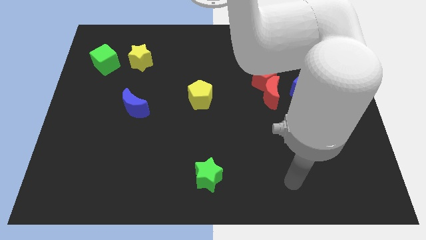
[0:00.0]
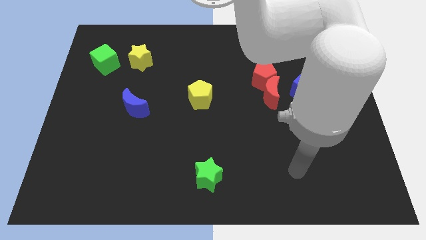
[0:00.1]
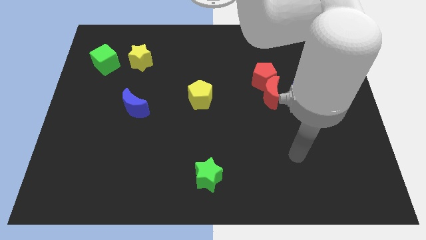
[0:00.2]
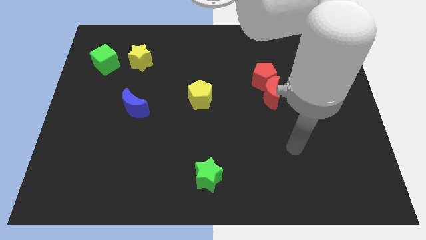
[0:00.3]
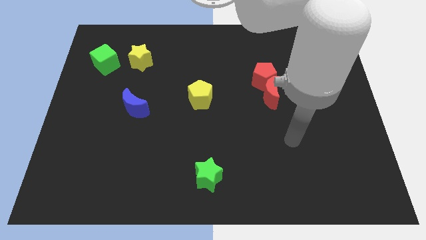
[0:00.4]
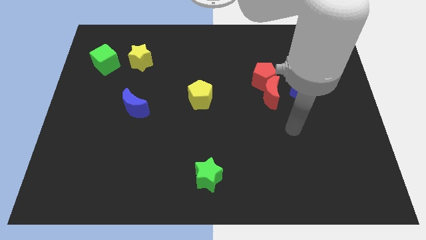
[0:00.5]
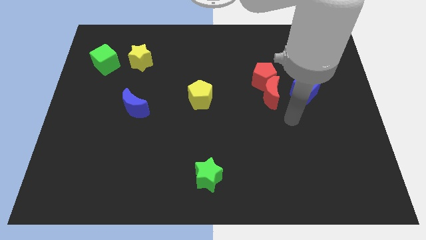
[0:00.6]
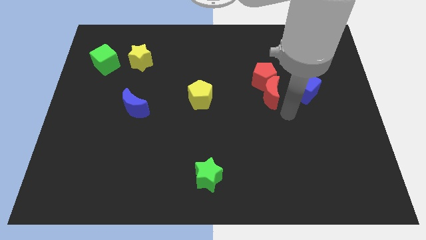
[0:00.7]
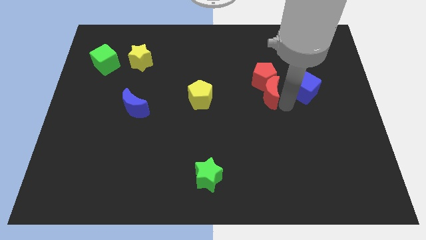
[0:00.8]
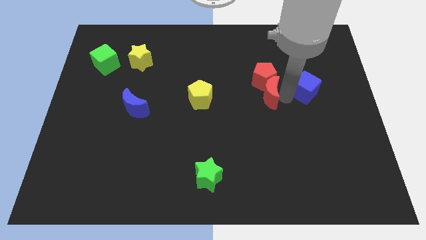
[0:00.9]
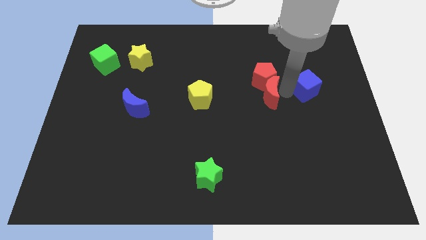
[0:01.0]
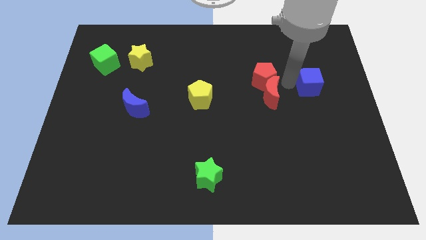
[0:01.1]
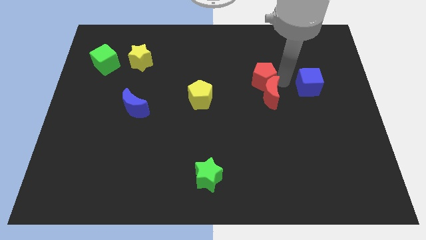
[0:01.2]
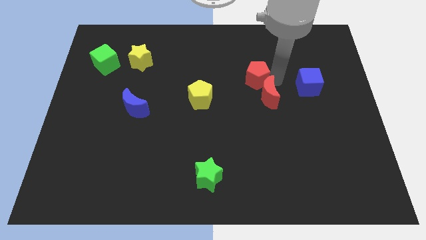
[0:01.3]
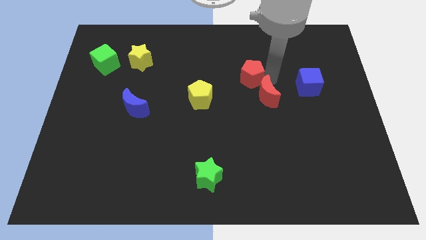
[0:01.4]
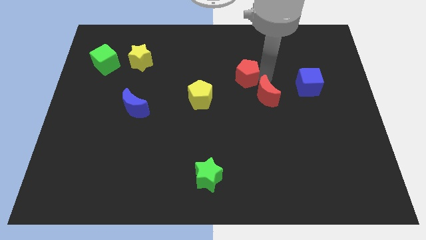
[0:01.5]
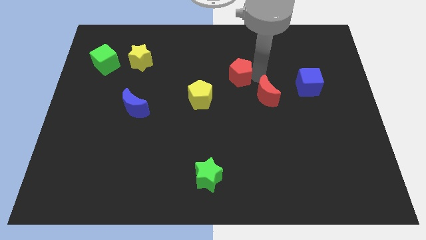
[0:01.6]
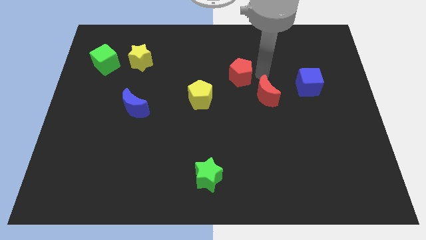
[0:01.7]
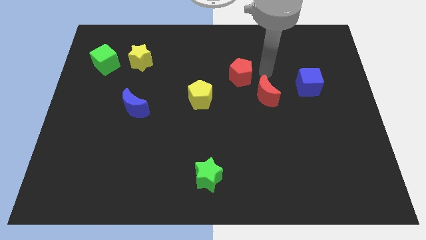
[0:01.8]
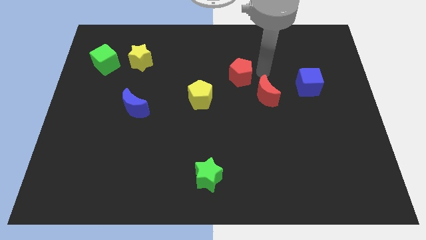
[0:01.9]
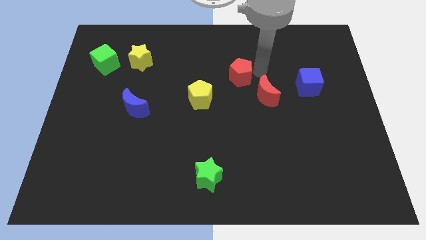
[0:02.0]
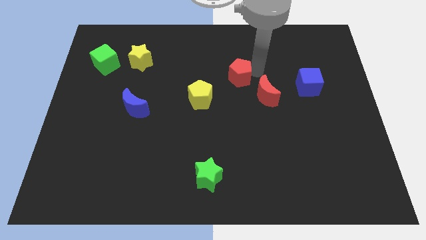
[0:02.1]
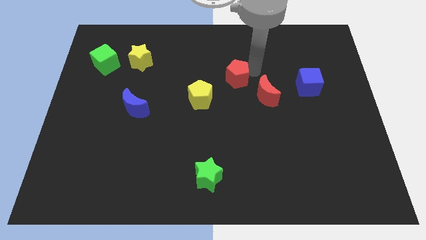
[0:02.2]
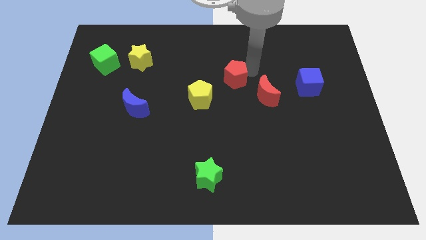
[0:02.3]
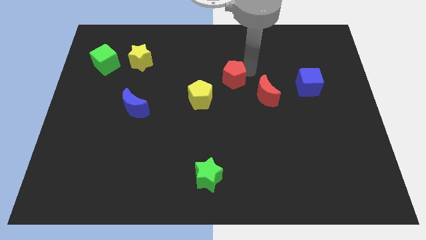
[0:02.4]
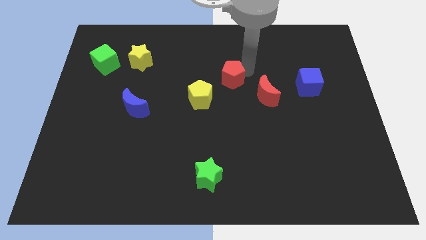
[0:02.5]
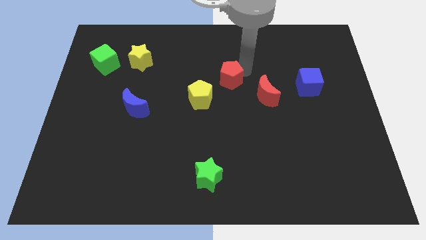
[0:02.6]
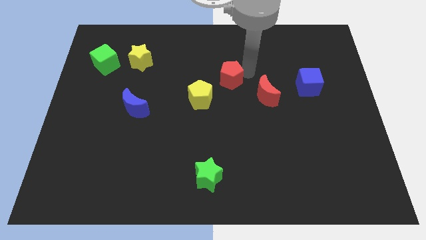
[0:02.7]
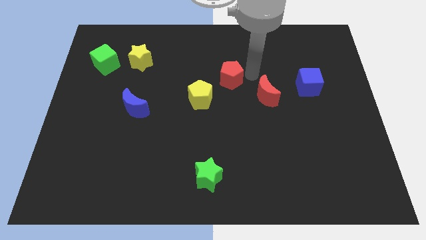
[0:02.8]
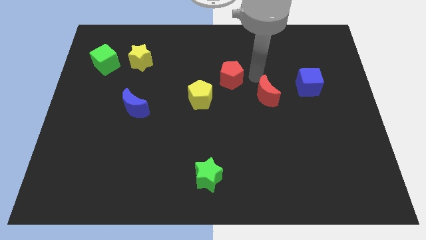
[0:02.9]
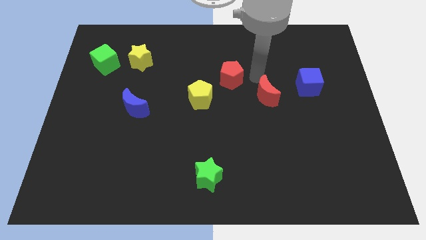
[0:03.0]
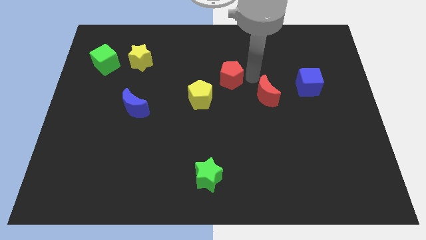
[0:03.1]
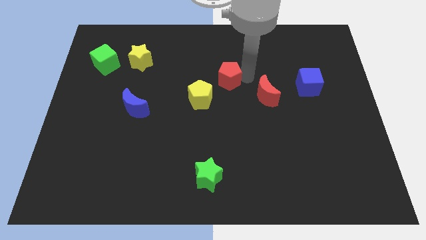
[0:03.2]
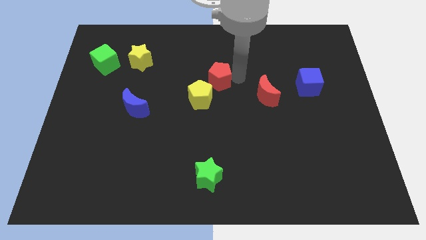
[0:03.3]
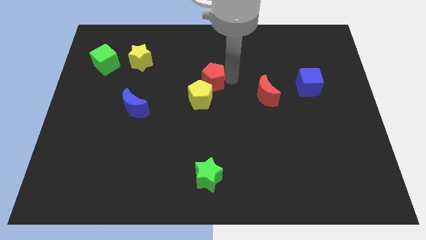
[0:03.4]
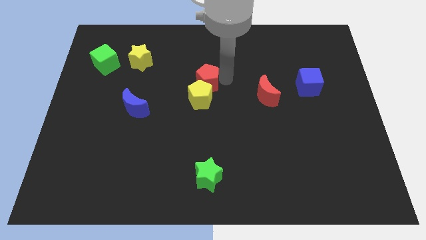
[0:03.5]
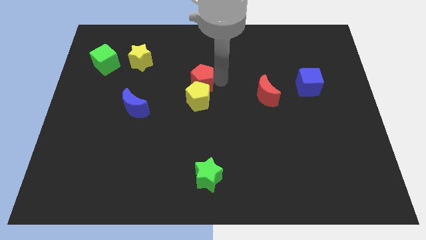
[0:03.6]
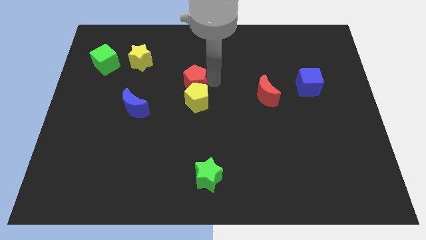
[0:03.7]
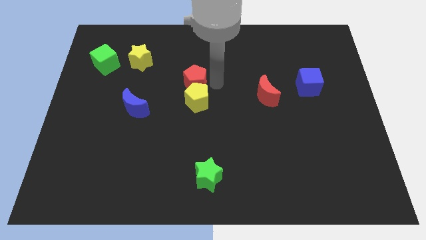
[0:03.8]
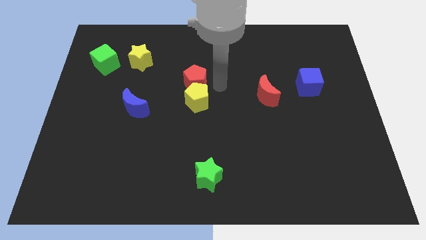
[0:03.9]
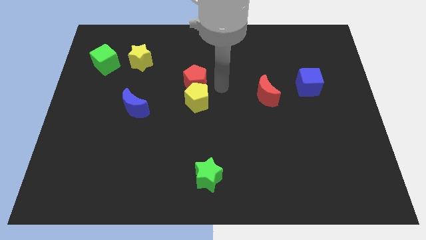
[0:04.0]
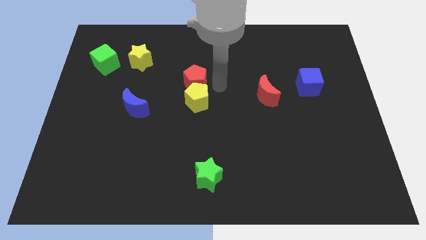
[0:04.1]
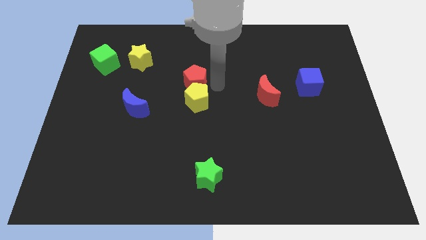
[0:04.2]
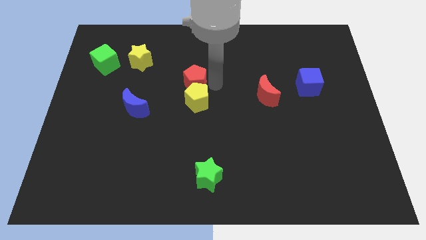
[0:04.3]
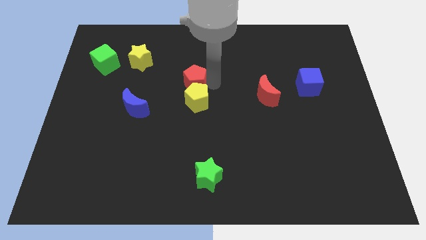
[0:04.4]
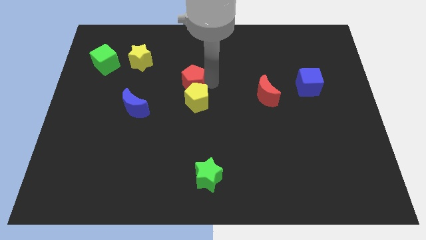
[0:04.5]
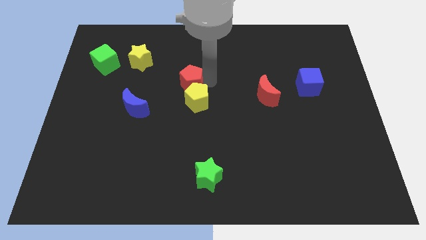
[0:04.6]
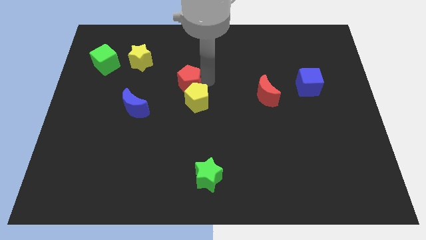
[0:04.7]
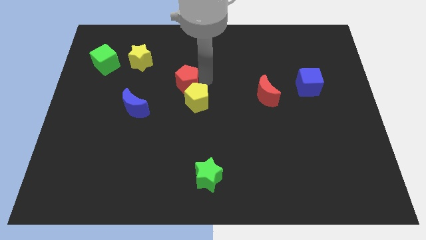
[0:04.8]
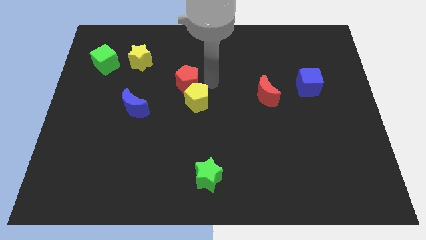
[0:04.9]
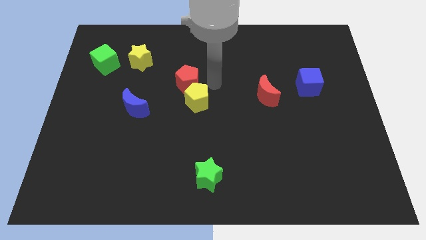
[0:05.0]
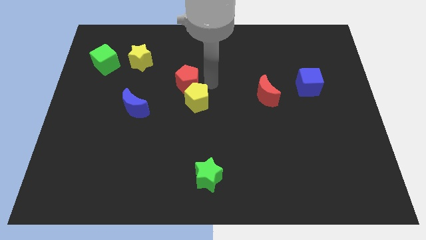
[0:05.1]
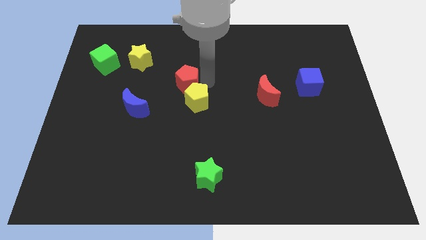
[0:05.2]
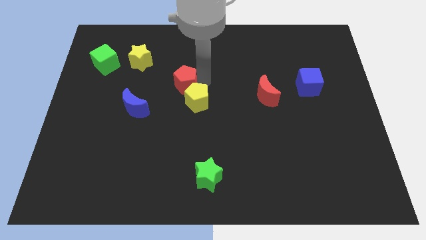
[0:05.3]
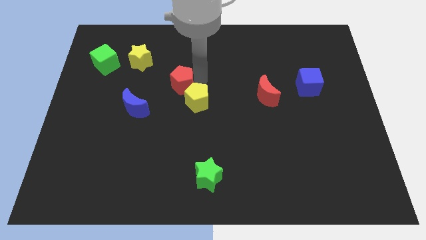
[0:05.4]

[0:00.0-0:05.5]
slide the red pentagon left

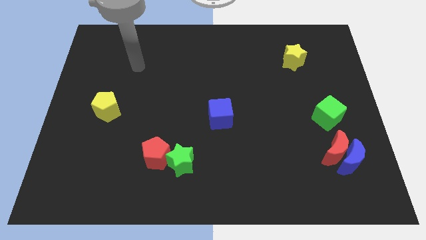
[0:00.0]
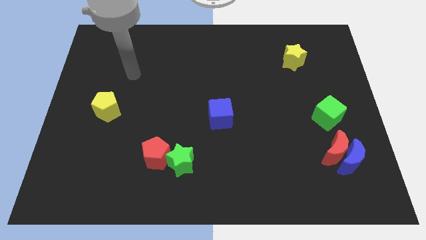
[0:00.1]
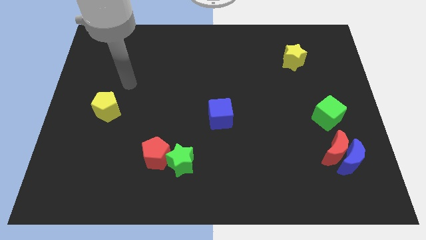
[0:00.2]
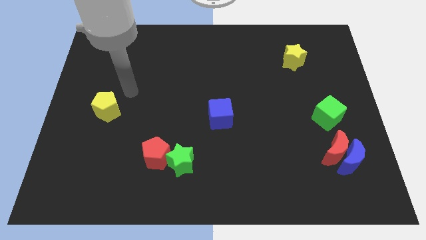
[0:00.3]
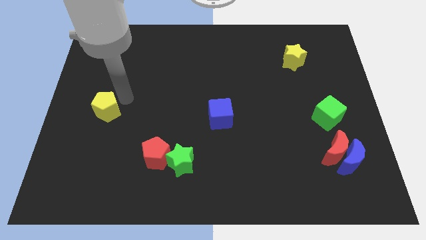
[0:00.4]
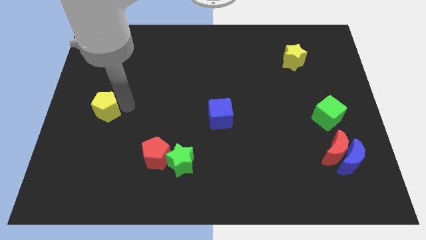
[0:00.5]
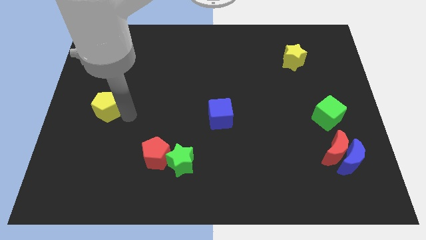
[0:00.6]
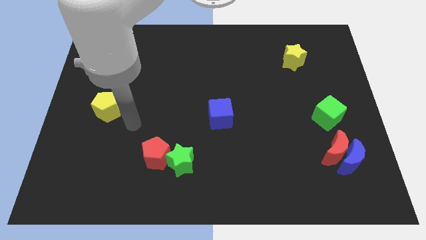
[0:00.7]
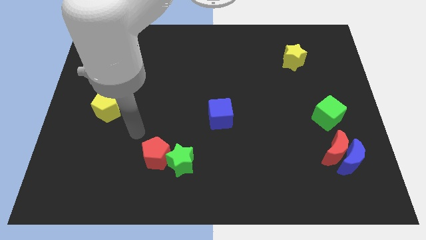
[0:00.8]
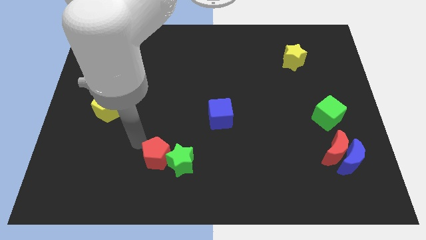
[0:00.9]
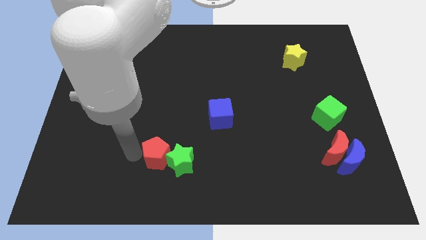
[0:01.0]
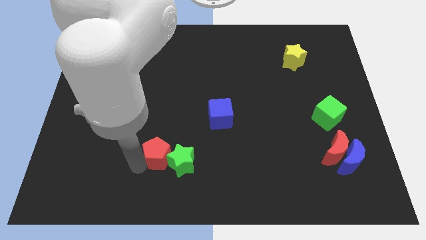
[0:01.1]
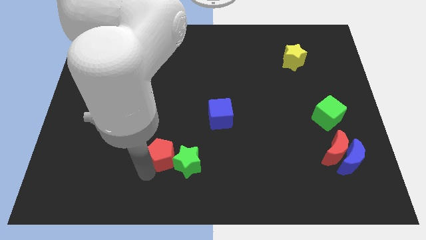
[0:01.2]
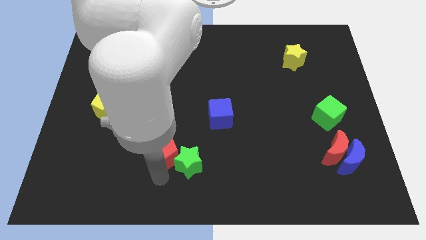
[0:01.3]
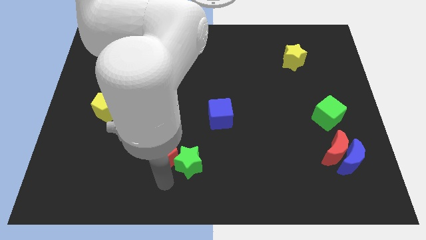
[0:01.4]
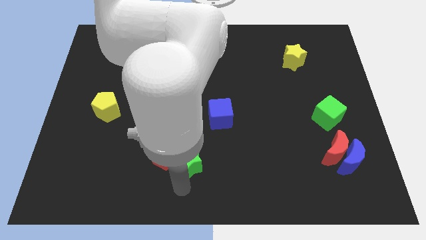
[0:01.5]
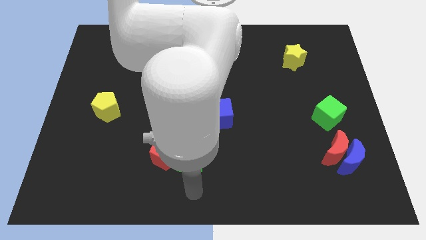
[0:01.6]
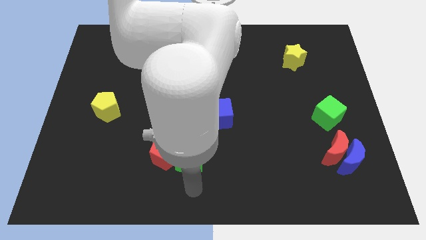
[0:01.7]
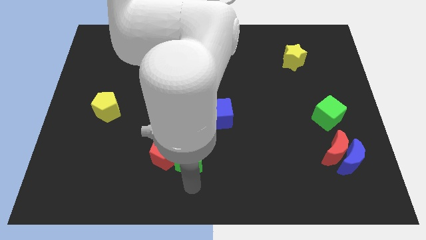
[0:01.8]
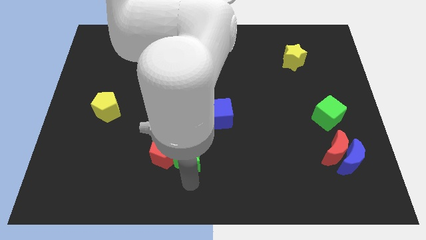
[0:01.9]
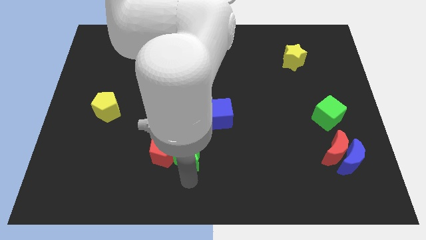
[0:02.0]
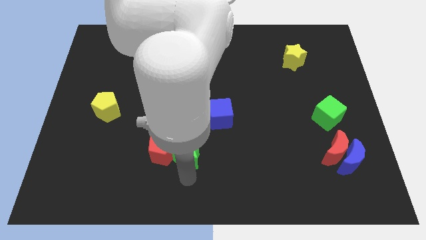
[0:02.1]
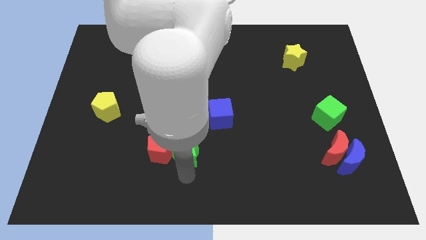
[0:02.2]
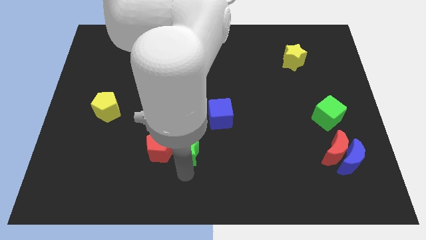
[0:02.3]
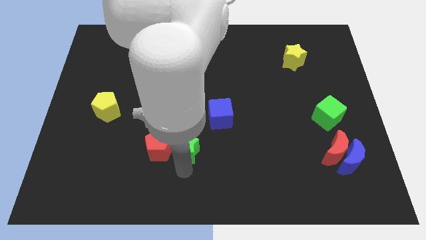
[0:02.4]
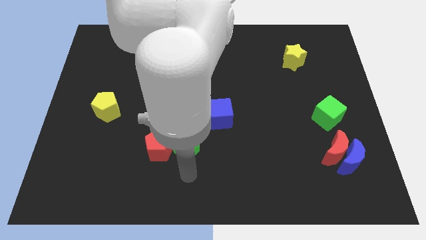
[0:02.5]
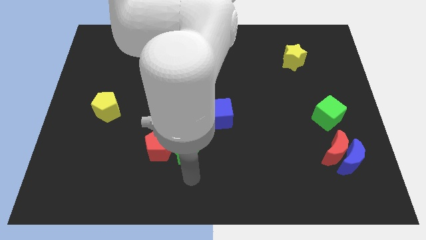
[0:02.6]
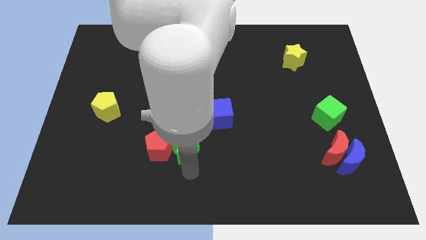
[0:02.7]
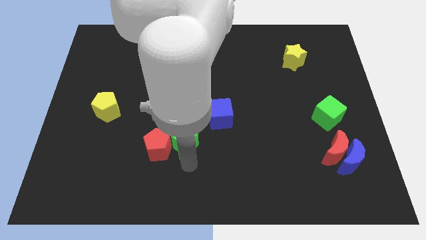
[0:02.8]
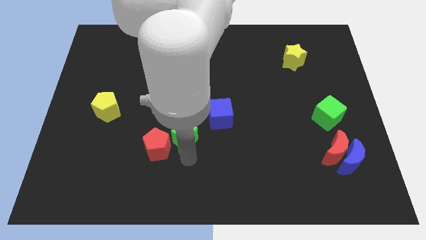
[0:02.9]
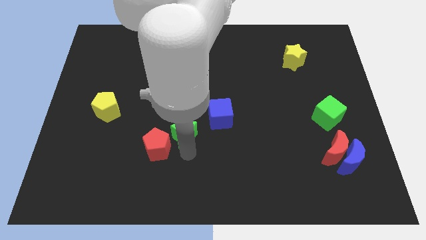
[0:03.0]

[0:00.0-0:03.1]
slide the green star somewhat upwards
